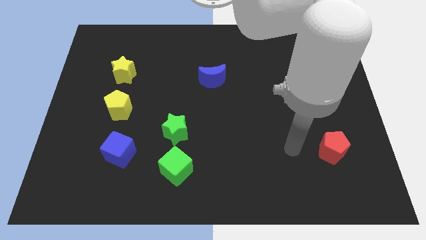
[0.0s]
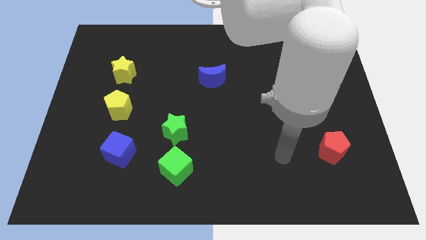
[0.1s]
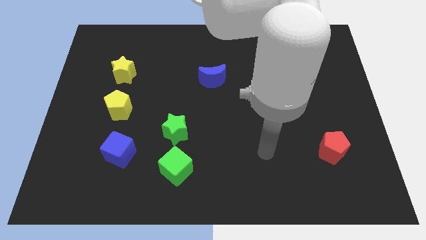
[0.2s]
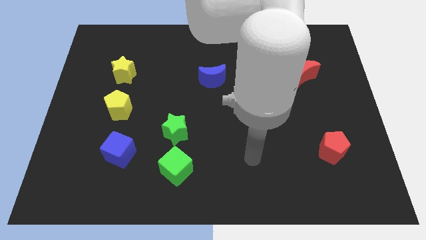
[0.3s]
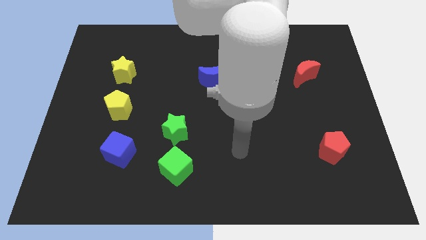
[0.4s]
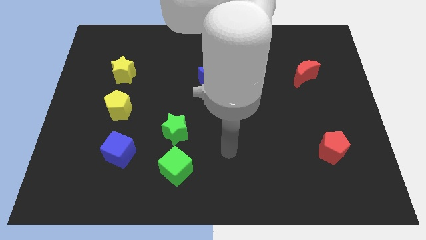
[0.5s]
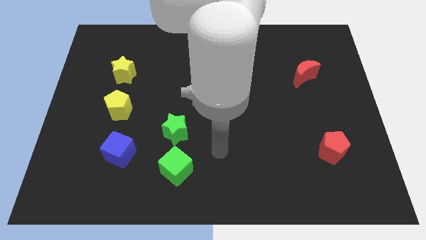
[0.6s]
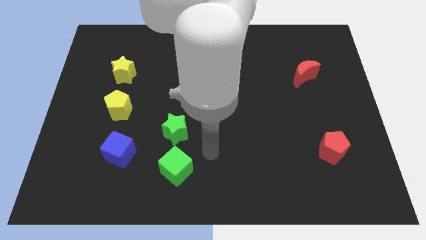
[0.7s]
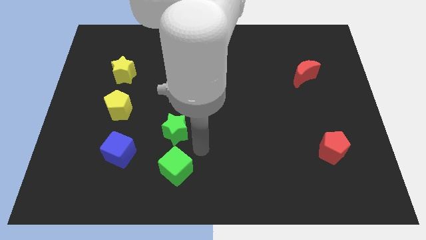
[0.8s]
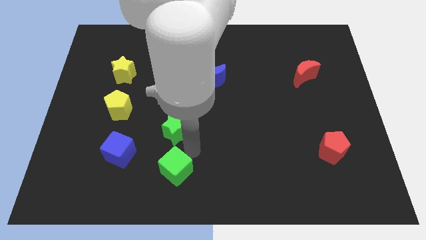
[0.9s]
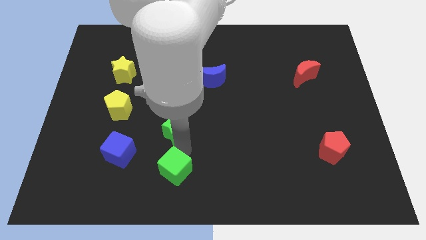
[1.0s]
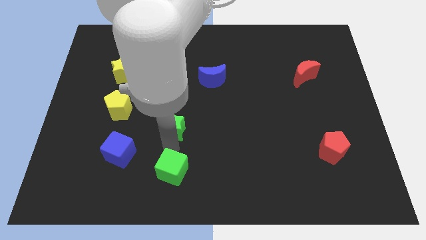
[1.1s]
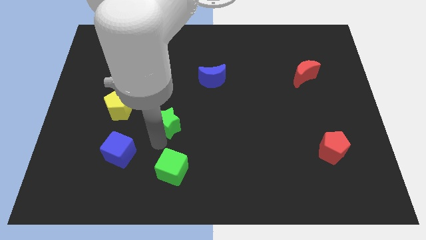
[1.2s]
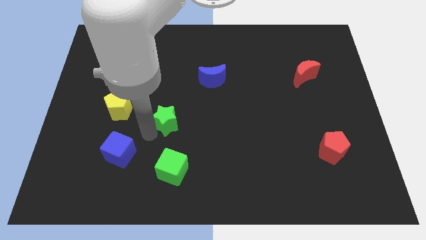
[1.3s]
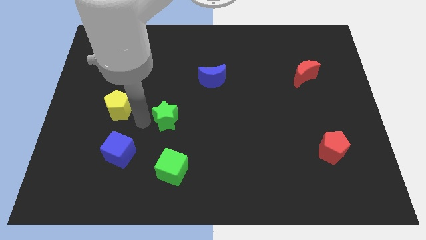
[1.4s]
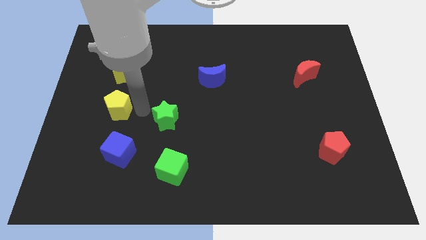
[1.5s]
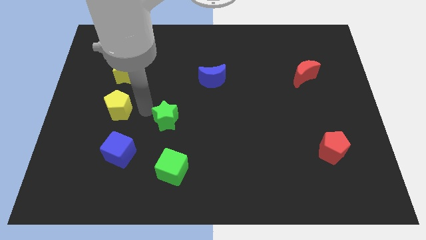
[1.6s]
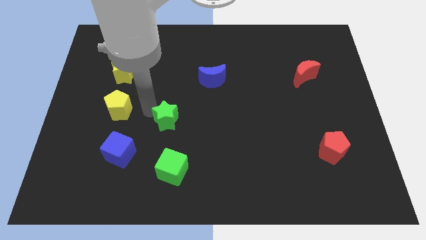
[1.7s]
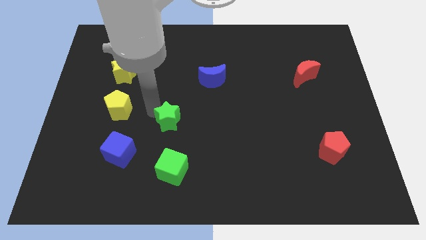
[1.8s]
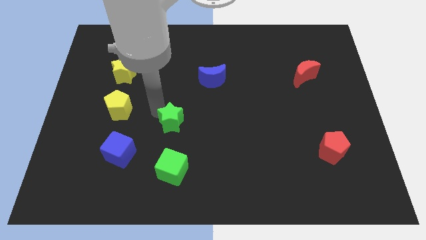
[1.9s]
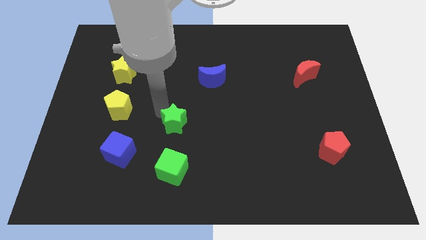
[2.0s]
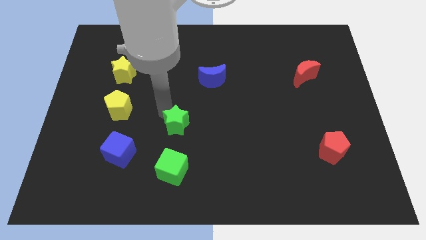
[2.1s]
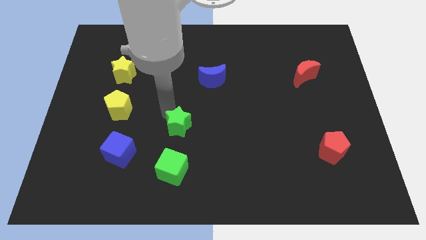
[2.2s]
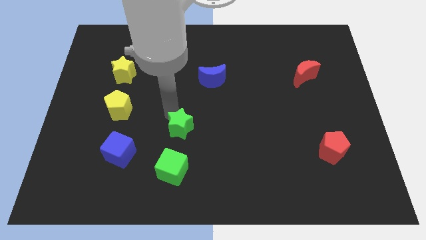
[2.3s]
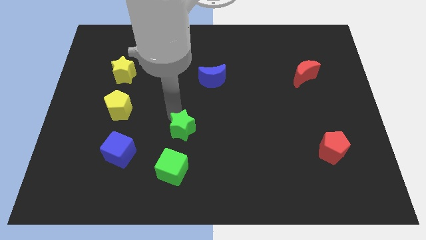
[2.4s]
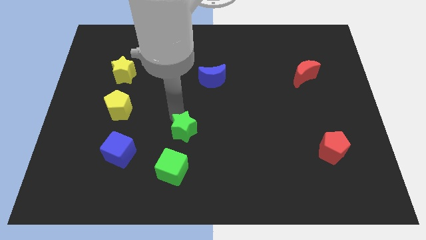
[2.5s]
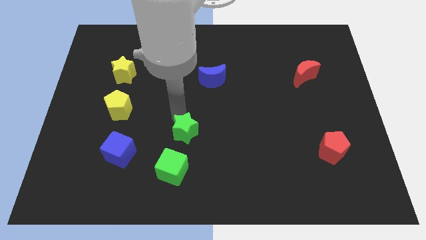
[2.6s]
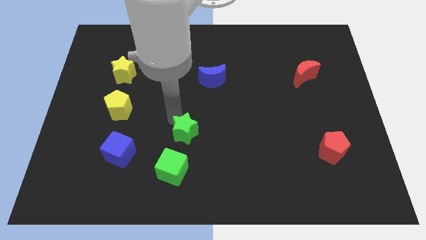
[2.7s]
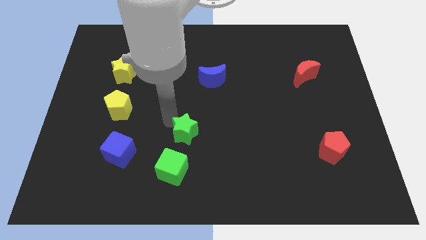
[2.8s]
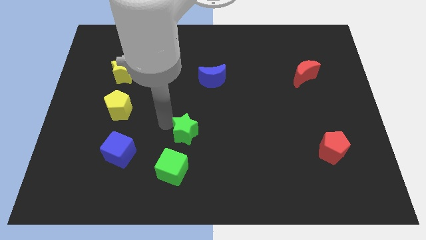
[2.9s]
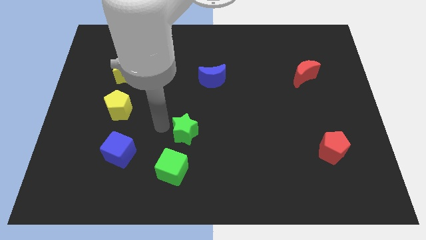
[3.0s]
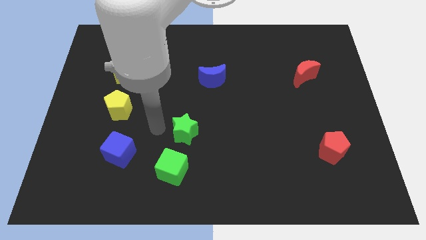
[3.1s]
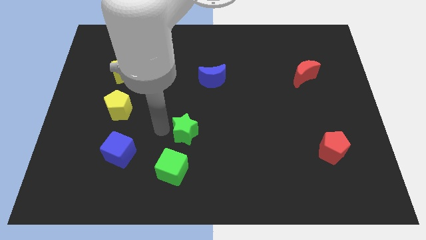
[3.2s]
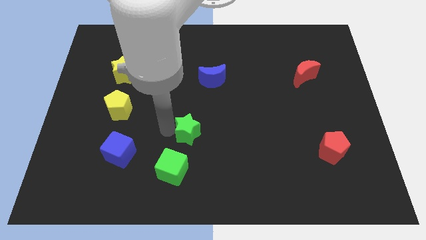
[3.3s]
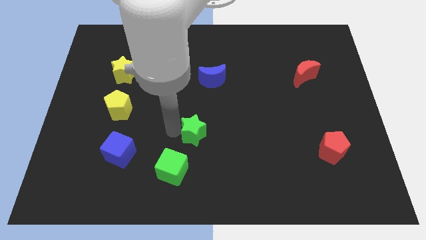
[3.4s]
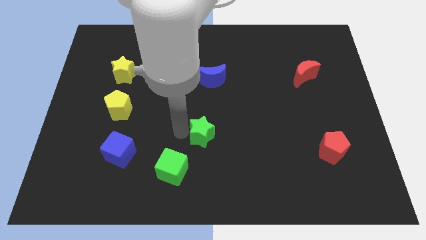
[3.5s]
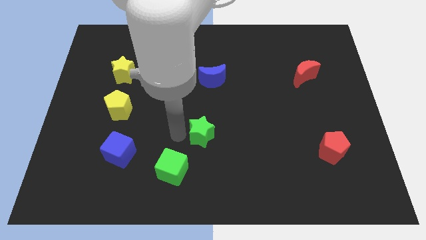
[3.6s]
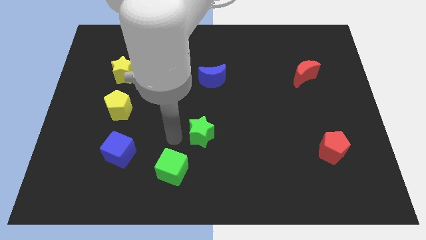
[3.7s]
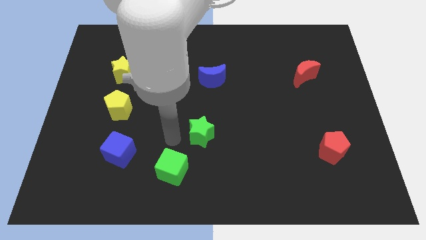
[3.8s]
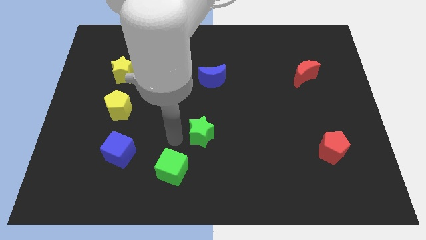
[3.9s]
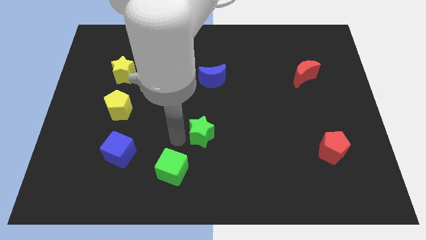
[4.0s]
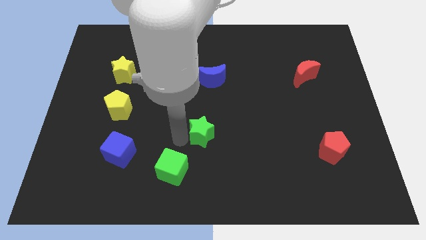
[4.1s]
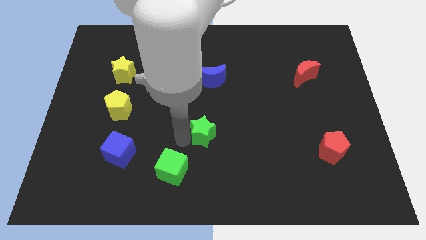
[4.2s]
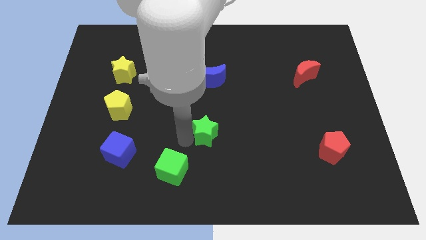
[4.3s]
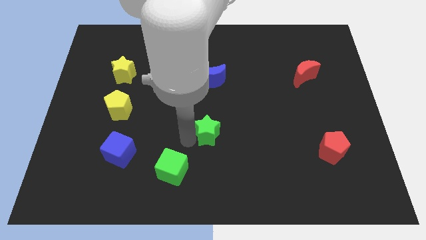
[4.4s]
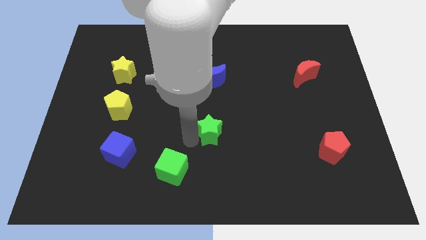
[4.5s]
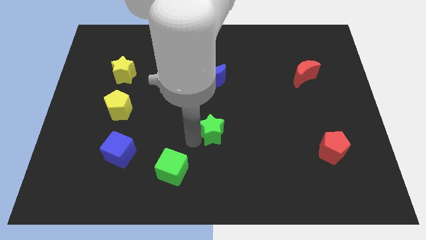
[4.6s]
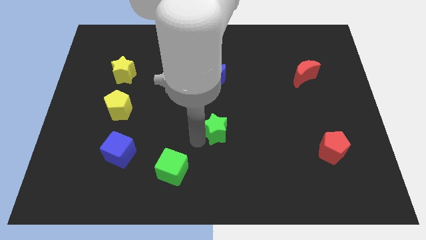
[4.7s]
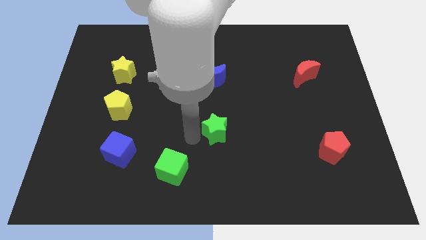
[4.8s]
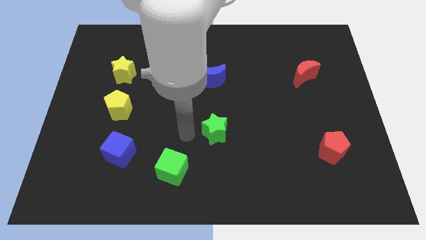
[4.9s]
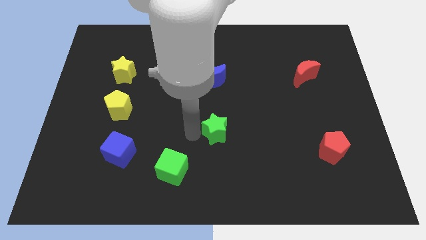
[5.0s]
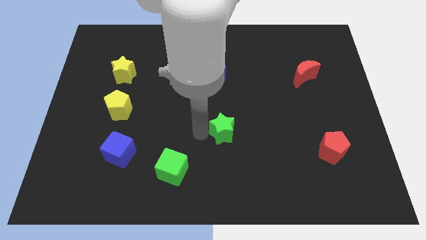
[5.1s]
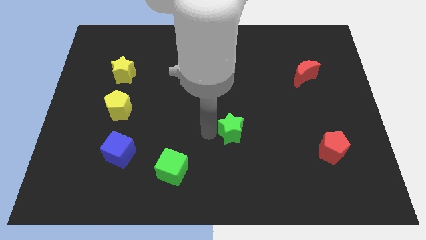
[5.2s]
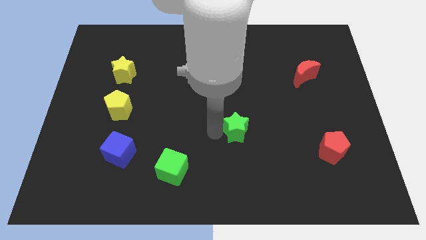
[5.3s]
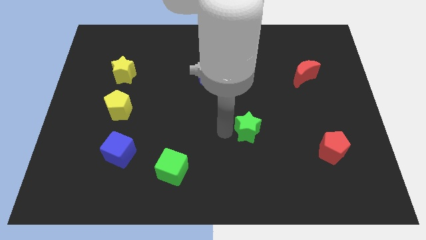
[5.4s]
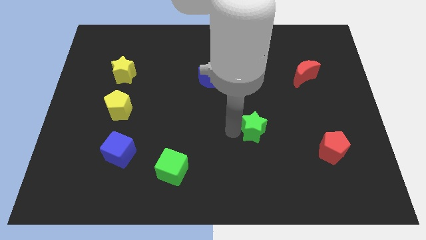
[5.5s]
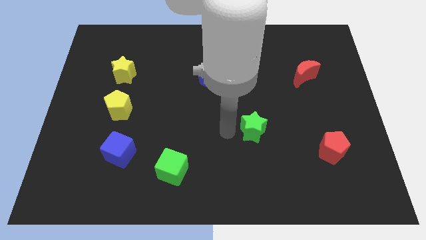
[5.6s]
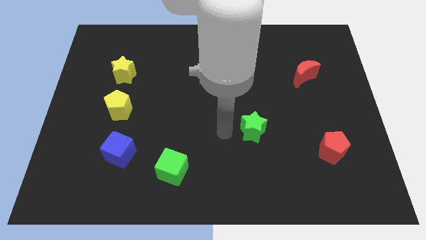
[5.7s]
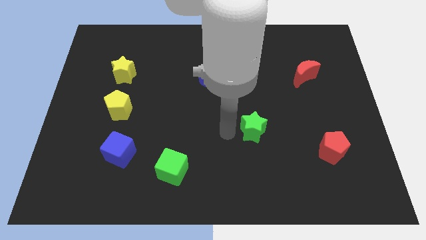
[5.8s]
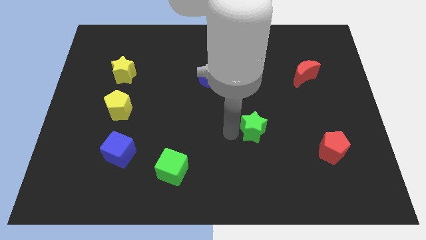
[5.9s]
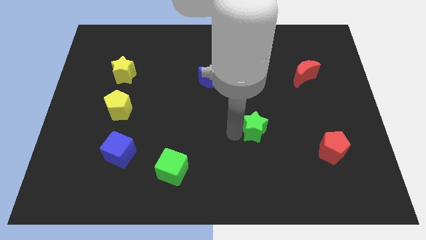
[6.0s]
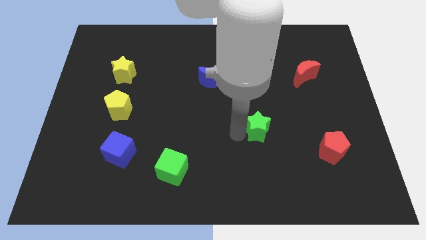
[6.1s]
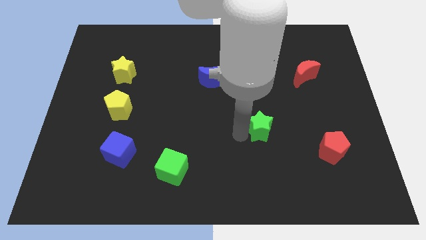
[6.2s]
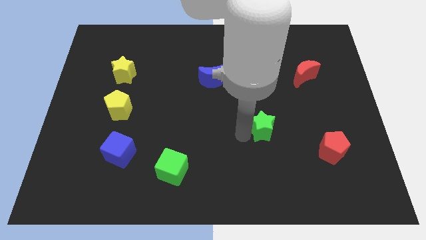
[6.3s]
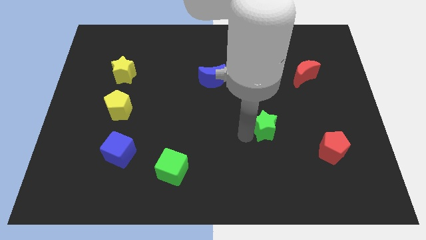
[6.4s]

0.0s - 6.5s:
slide the green star right

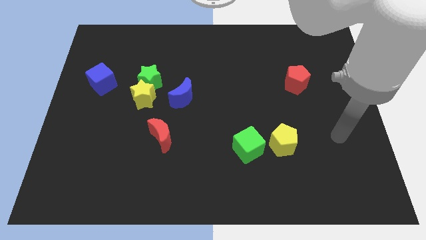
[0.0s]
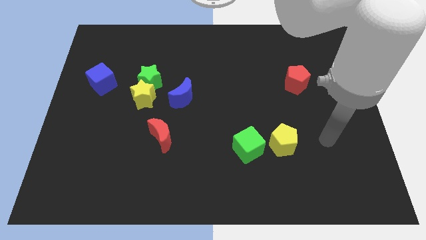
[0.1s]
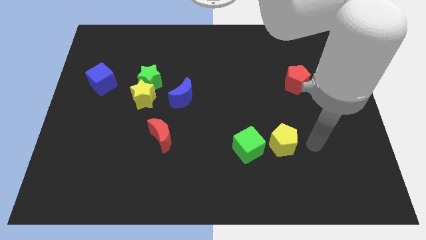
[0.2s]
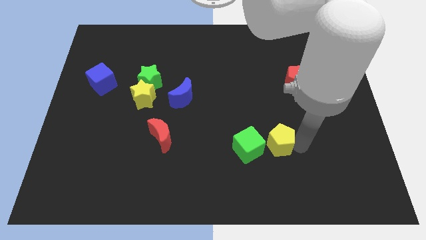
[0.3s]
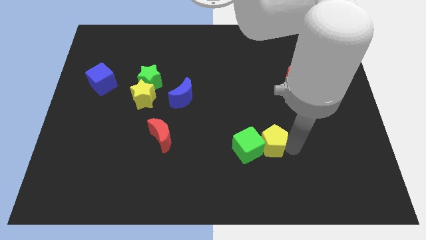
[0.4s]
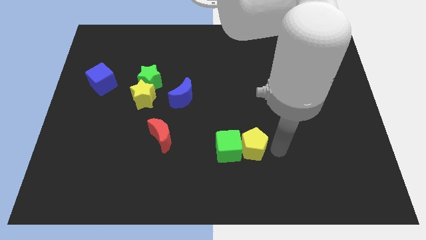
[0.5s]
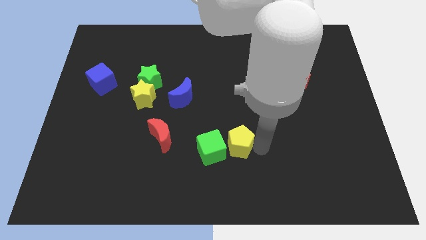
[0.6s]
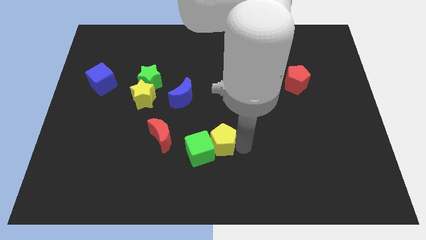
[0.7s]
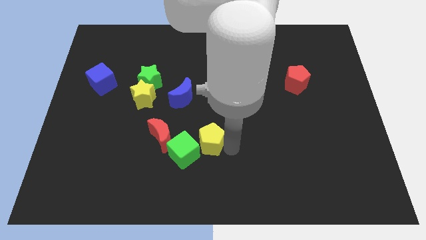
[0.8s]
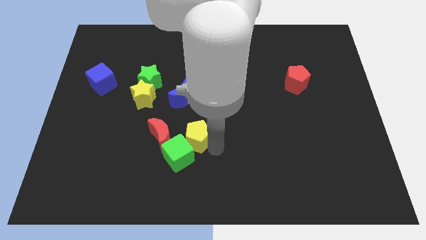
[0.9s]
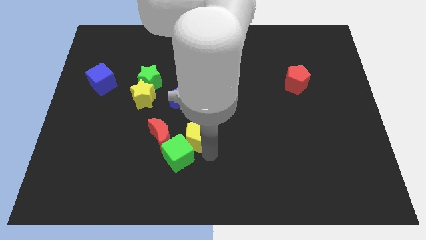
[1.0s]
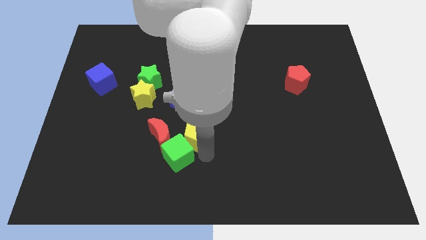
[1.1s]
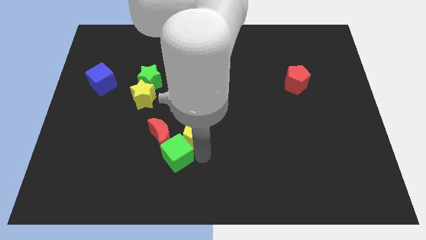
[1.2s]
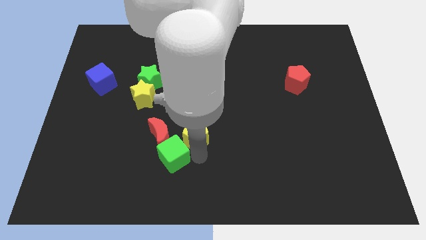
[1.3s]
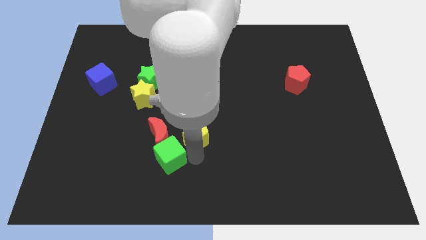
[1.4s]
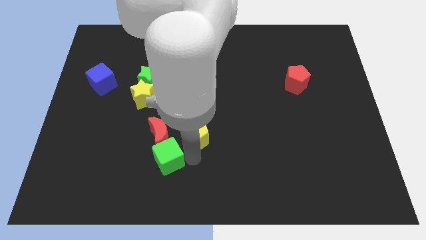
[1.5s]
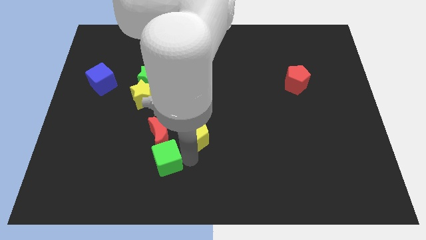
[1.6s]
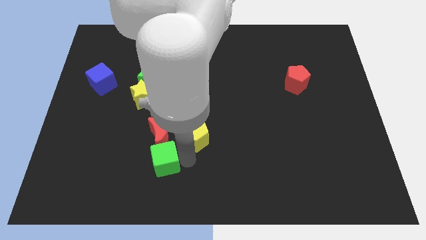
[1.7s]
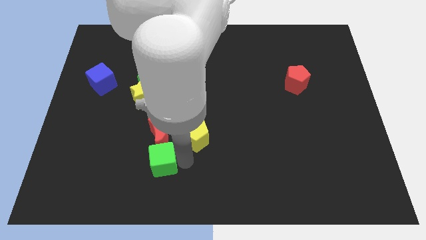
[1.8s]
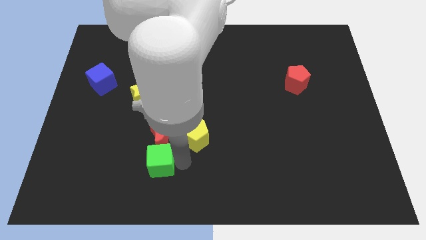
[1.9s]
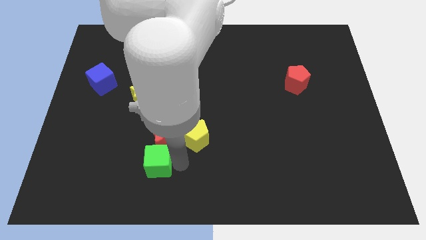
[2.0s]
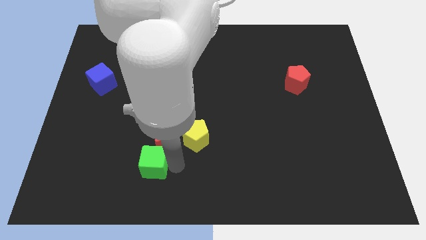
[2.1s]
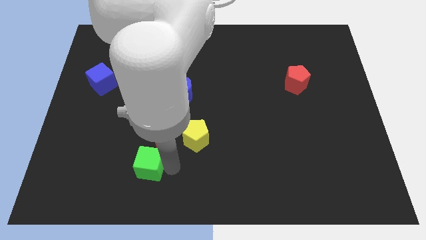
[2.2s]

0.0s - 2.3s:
slide the green cube to the left
